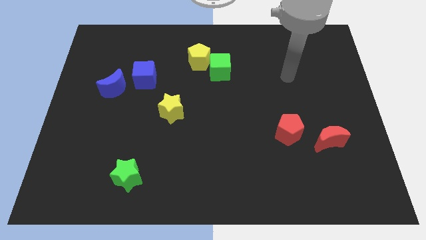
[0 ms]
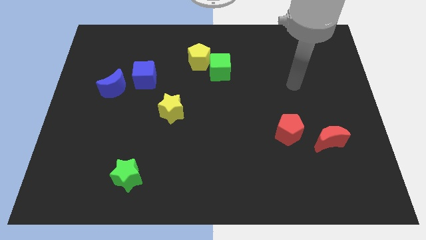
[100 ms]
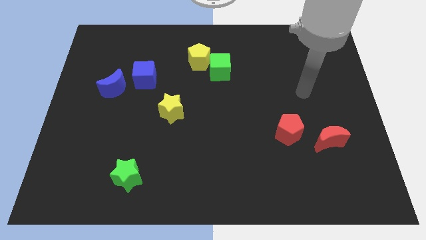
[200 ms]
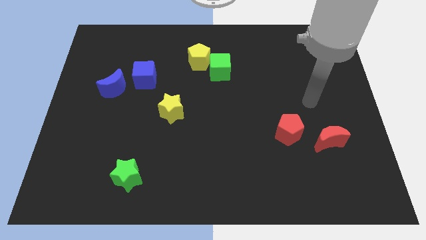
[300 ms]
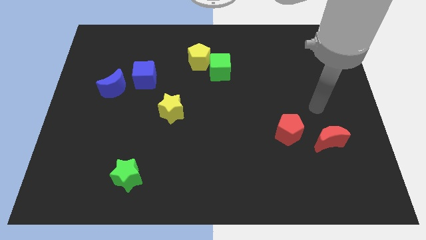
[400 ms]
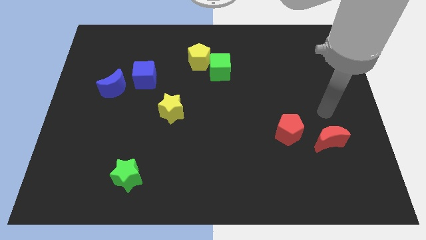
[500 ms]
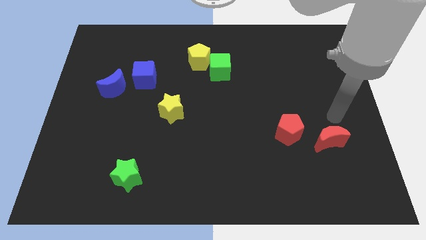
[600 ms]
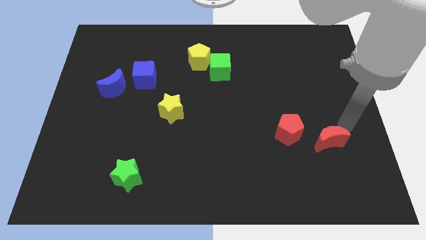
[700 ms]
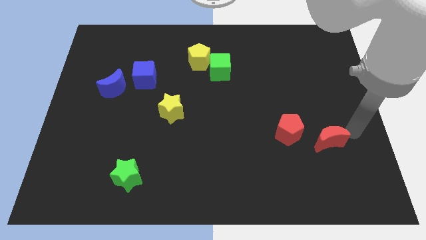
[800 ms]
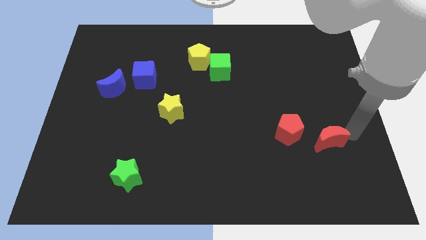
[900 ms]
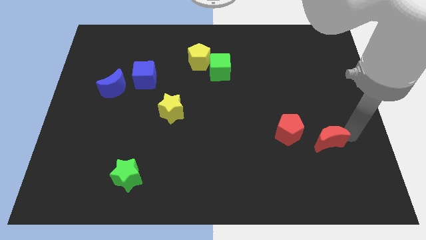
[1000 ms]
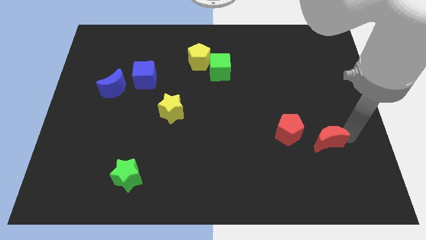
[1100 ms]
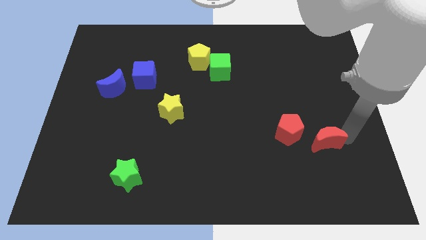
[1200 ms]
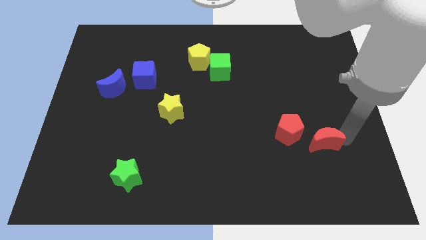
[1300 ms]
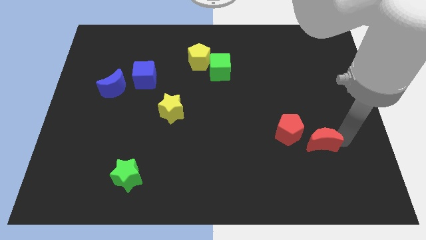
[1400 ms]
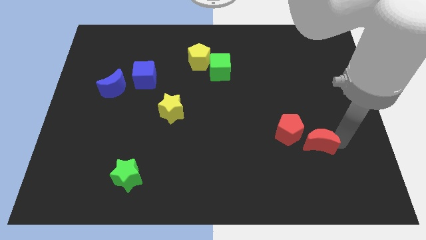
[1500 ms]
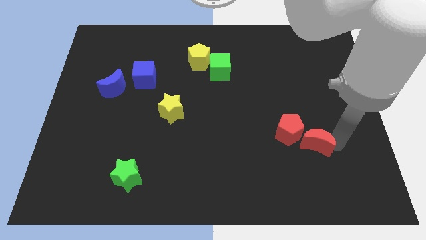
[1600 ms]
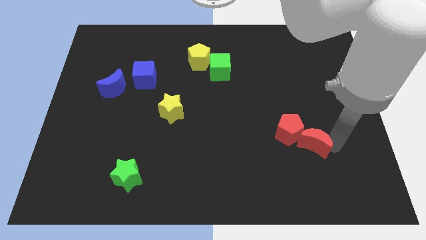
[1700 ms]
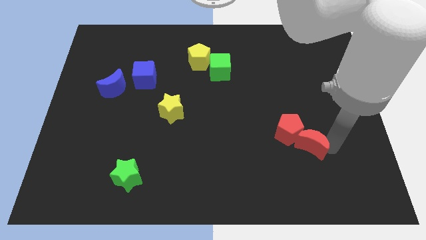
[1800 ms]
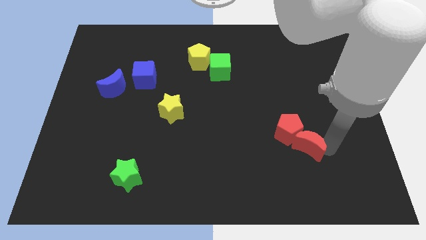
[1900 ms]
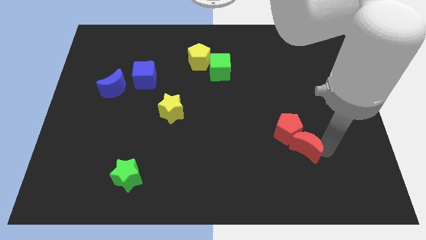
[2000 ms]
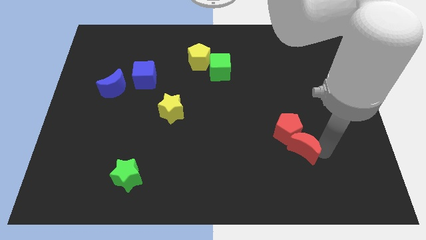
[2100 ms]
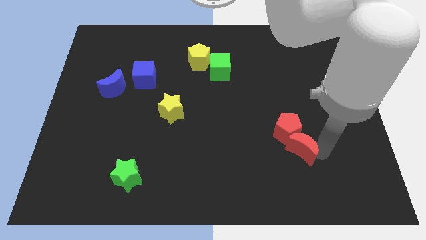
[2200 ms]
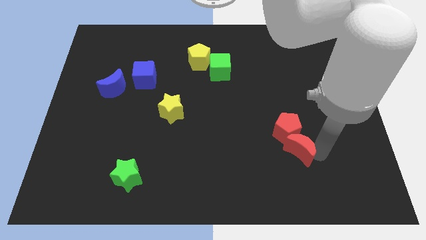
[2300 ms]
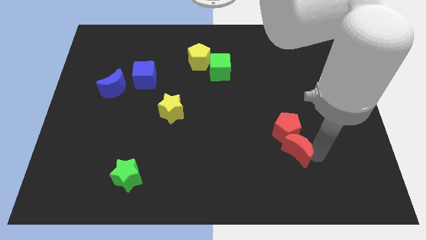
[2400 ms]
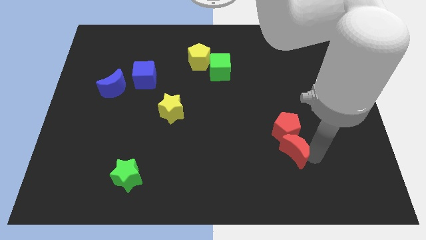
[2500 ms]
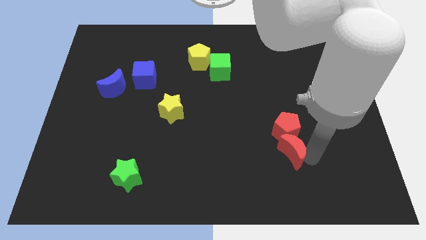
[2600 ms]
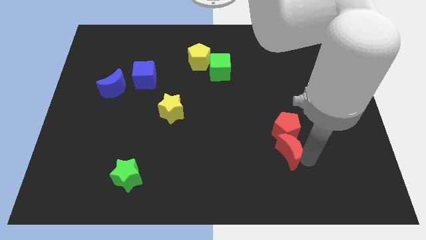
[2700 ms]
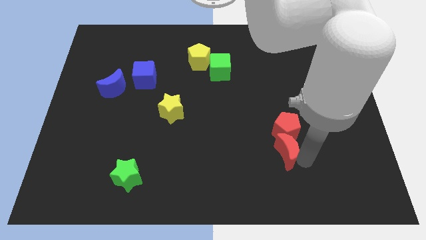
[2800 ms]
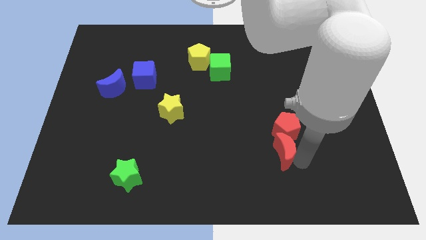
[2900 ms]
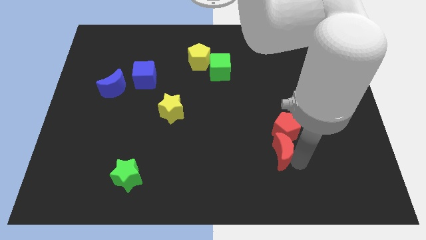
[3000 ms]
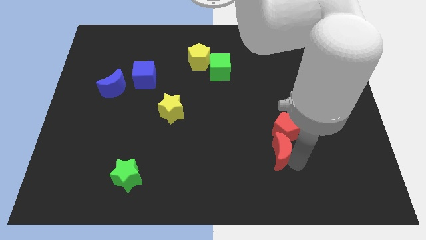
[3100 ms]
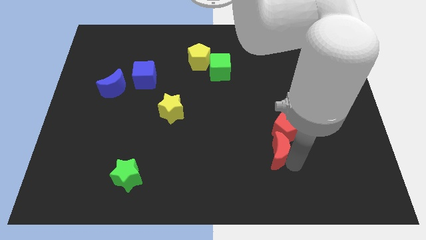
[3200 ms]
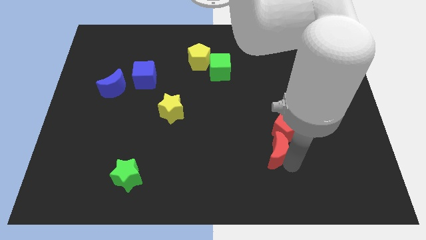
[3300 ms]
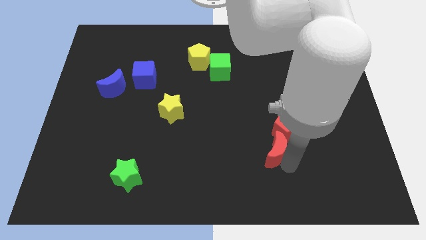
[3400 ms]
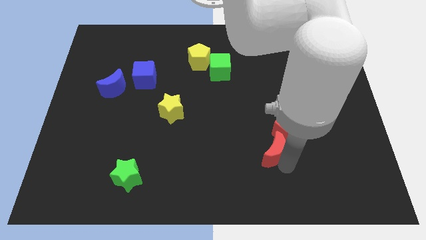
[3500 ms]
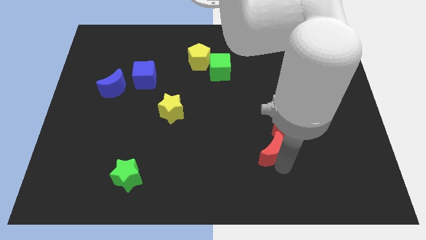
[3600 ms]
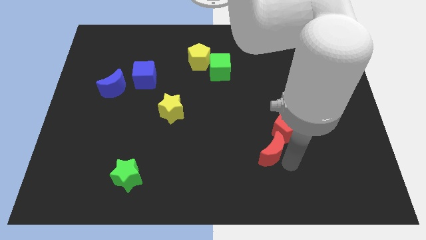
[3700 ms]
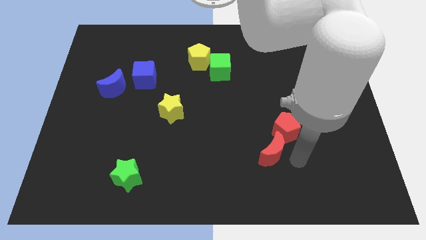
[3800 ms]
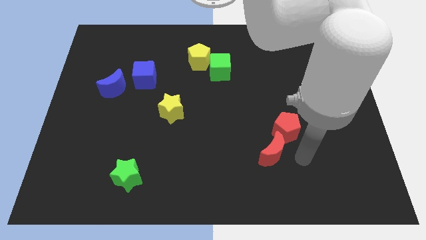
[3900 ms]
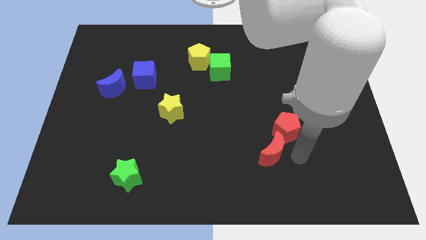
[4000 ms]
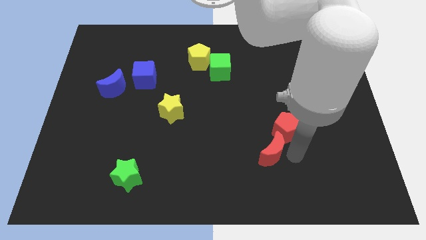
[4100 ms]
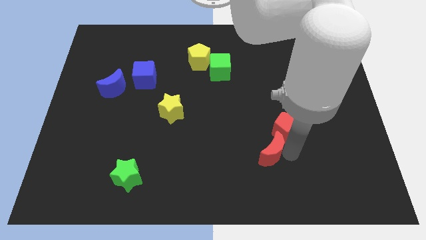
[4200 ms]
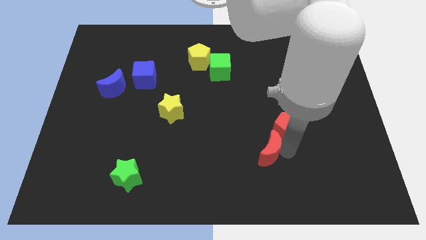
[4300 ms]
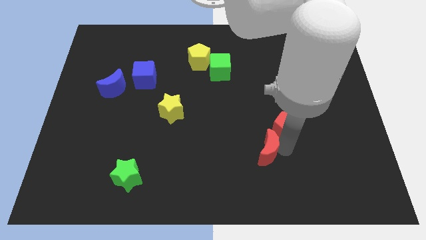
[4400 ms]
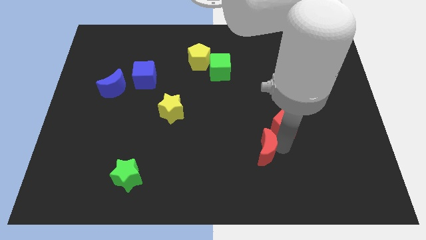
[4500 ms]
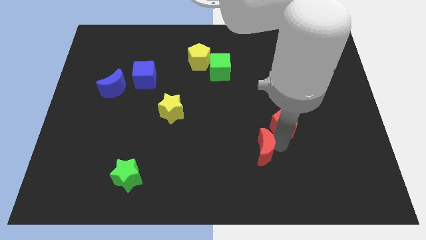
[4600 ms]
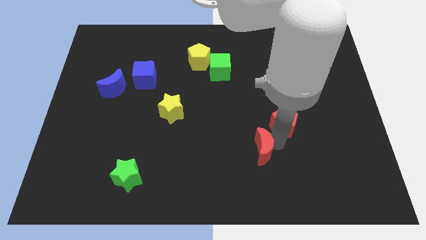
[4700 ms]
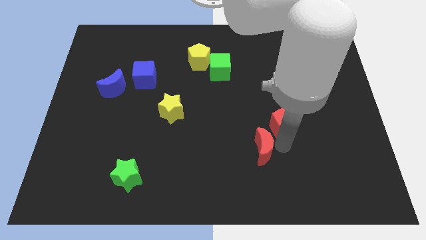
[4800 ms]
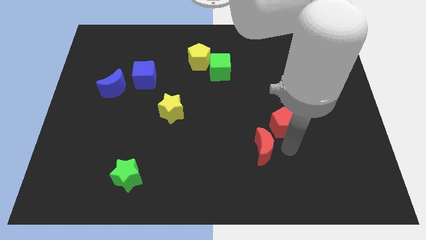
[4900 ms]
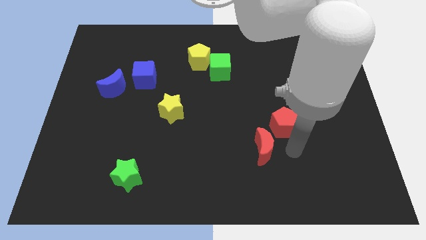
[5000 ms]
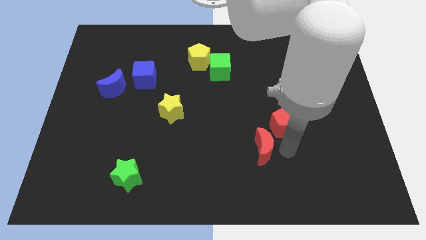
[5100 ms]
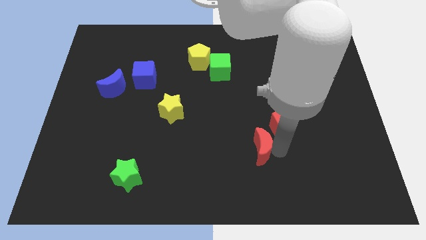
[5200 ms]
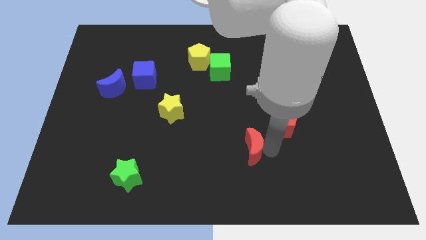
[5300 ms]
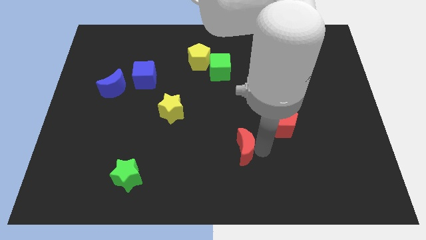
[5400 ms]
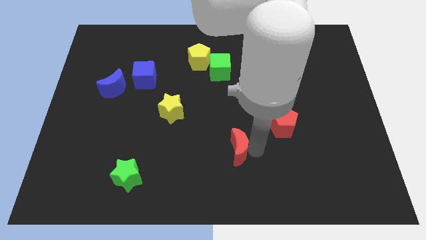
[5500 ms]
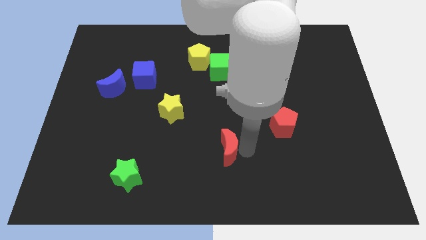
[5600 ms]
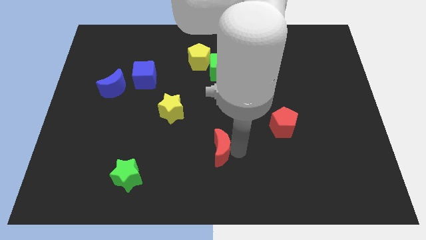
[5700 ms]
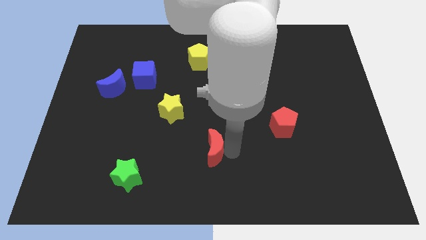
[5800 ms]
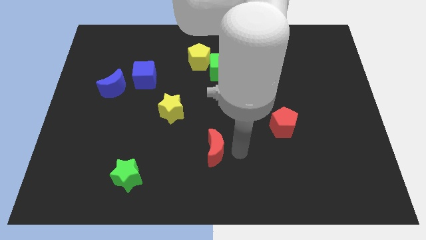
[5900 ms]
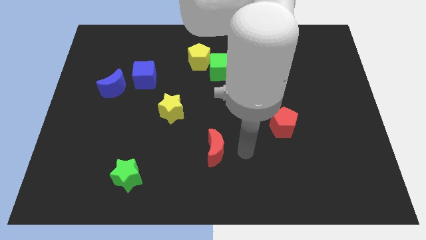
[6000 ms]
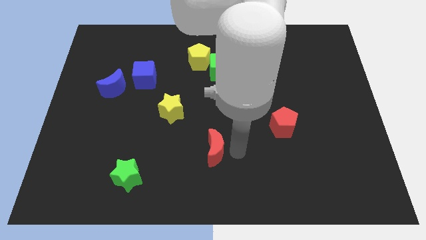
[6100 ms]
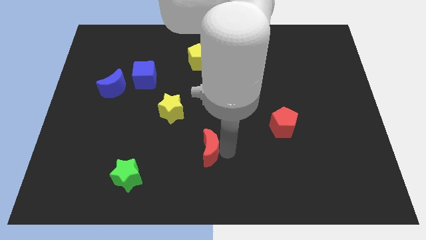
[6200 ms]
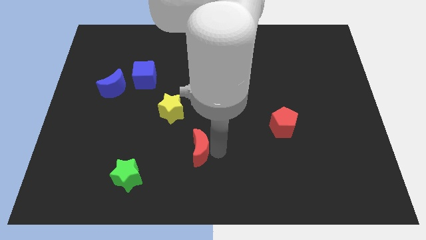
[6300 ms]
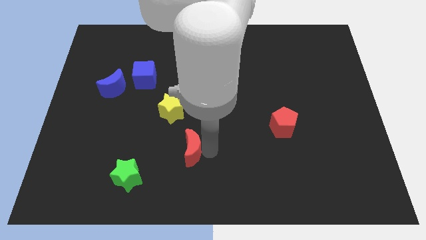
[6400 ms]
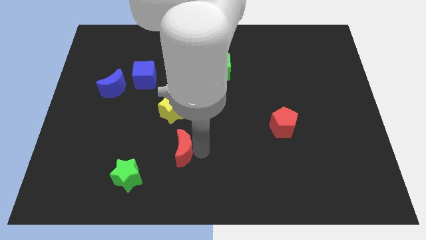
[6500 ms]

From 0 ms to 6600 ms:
move the red moon below the yellow star
